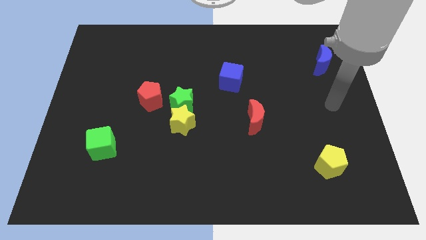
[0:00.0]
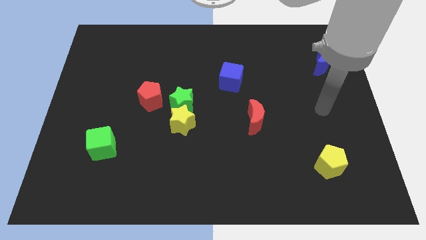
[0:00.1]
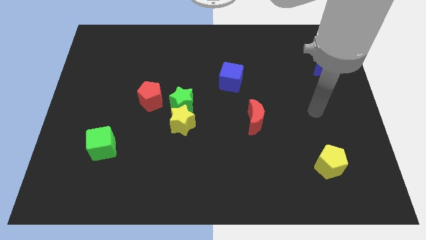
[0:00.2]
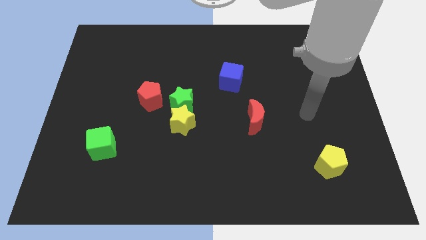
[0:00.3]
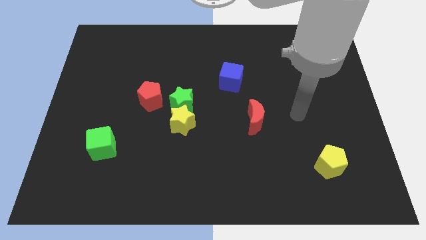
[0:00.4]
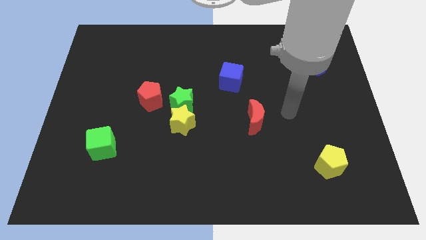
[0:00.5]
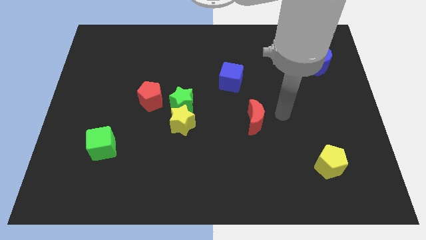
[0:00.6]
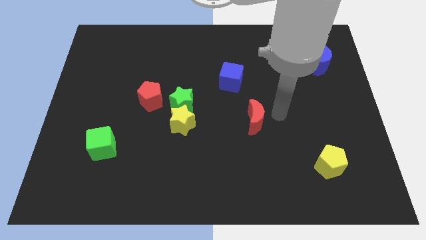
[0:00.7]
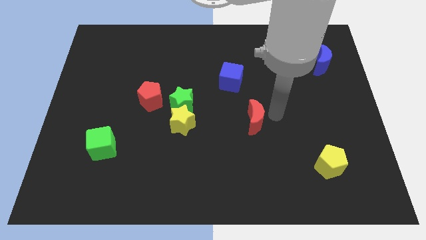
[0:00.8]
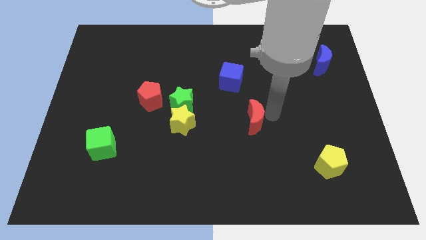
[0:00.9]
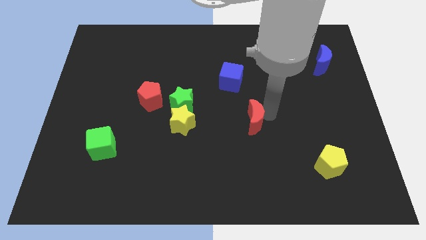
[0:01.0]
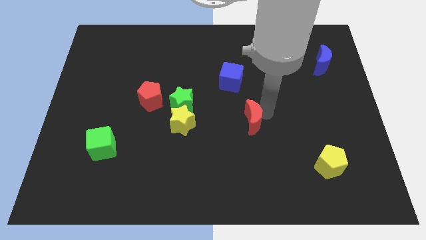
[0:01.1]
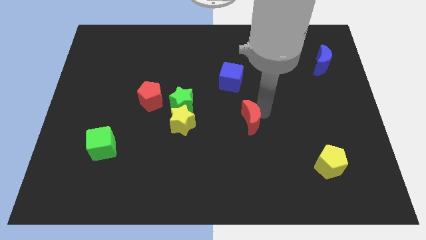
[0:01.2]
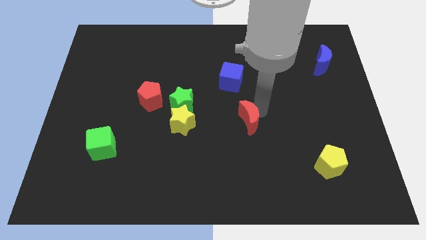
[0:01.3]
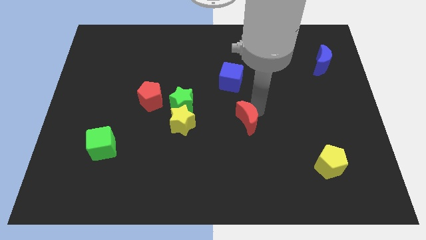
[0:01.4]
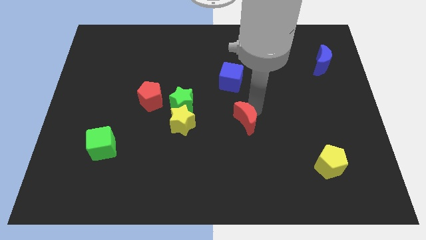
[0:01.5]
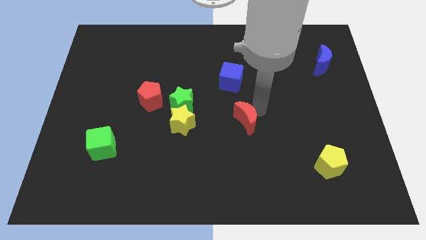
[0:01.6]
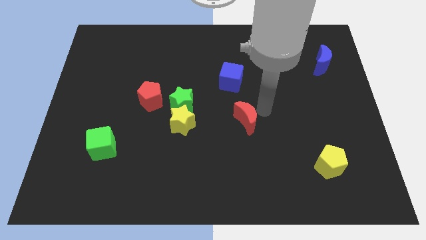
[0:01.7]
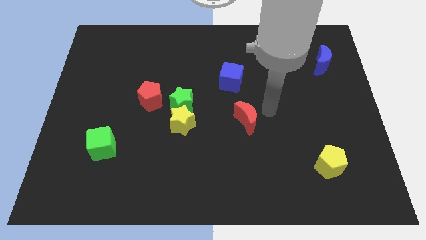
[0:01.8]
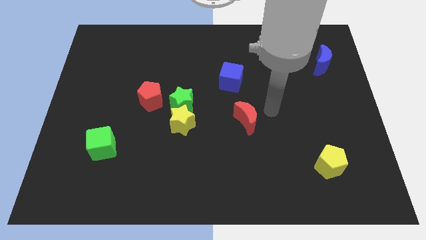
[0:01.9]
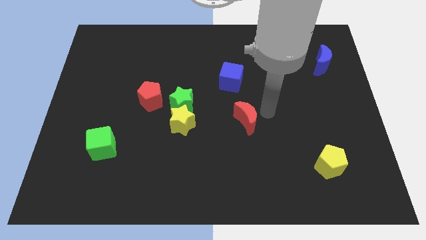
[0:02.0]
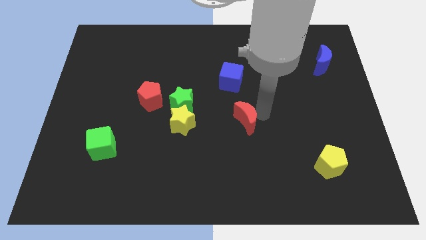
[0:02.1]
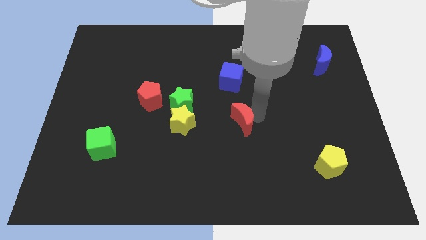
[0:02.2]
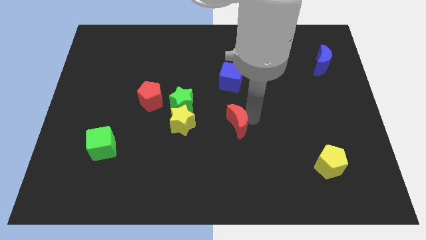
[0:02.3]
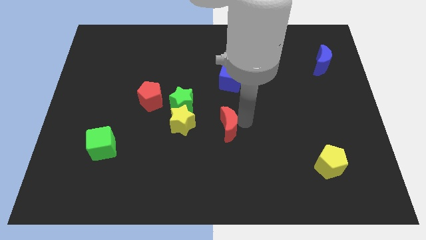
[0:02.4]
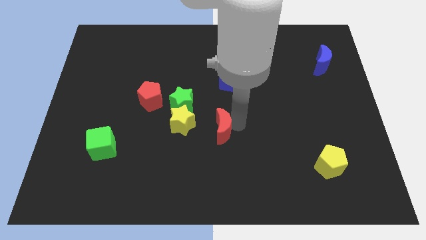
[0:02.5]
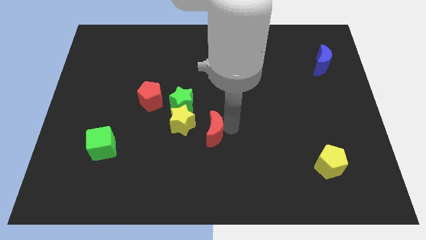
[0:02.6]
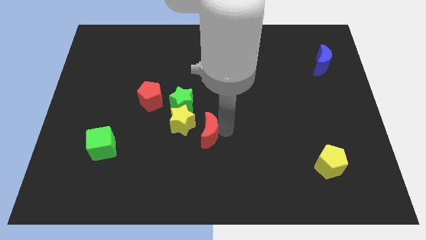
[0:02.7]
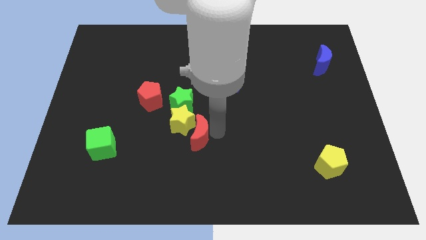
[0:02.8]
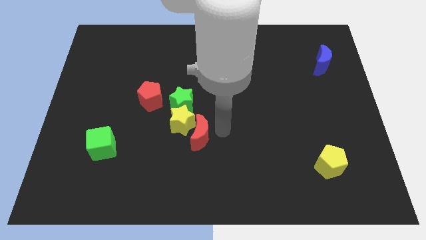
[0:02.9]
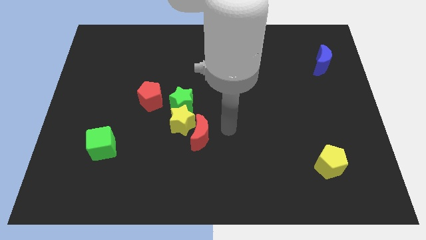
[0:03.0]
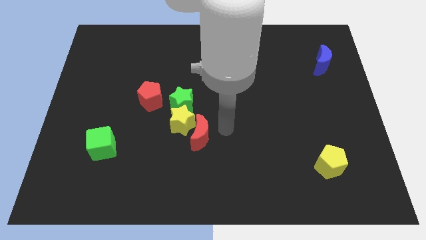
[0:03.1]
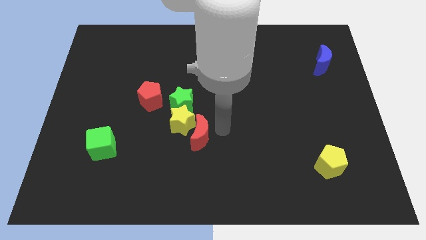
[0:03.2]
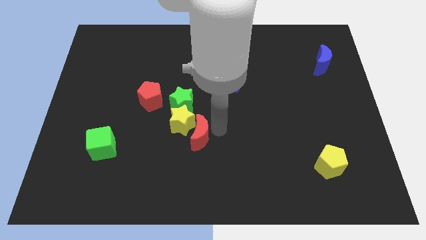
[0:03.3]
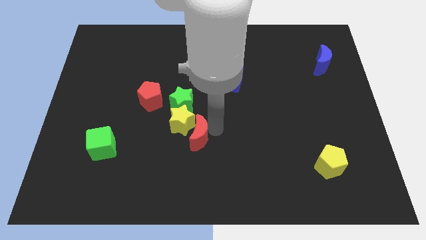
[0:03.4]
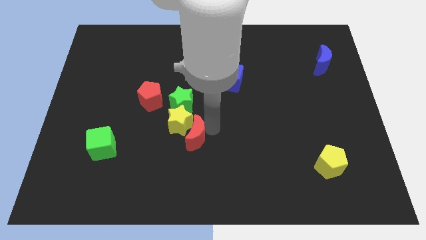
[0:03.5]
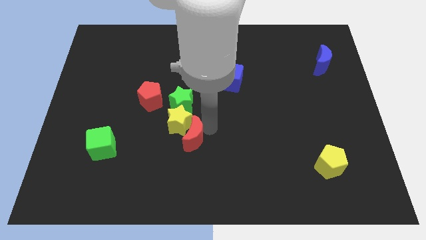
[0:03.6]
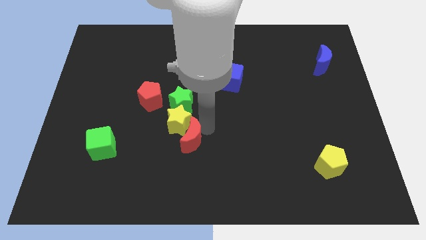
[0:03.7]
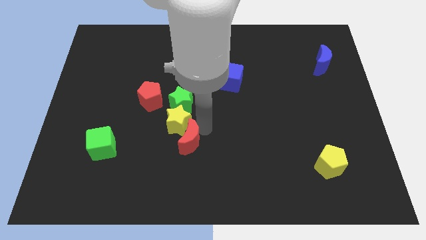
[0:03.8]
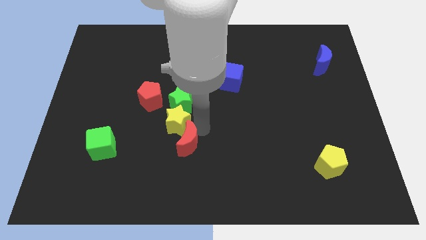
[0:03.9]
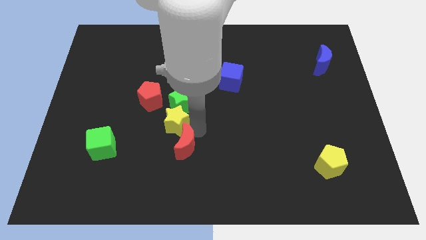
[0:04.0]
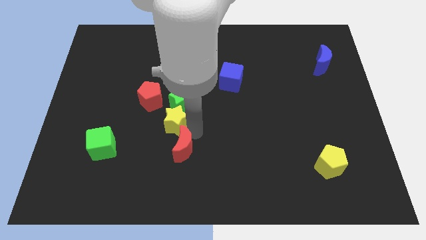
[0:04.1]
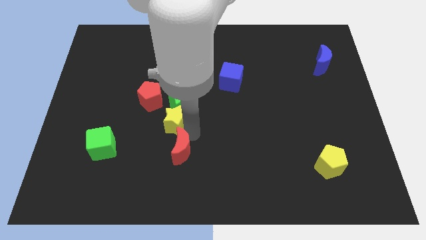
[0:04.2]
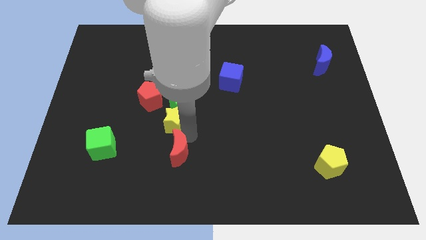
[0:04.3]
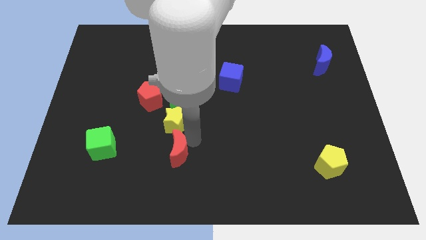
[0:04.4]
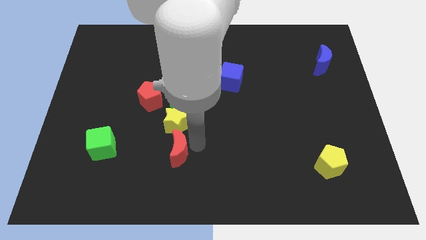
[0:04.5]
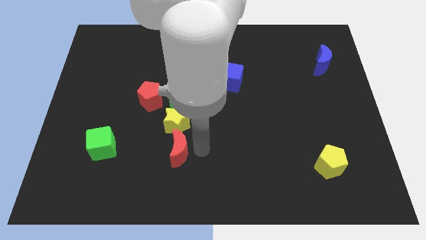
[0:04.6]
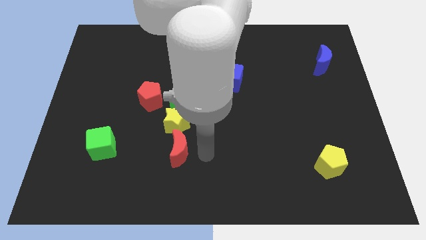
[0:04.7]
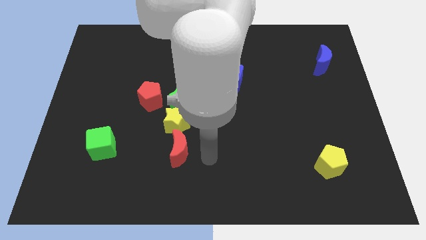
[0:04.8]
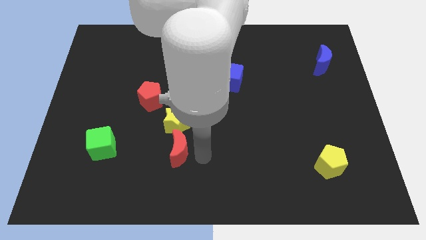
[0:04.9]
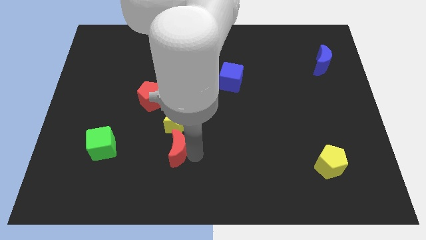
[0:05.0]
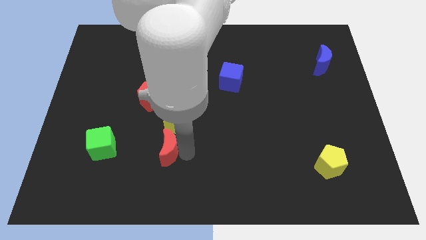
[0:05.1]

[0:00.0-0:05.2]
move the red moon diagonally down and to the left of the yellow star
